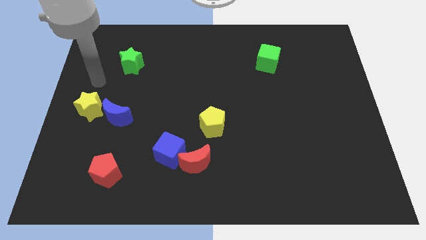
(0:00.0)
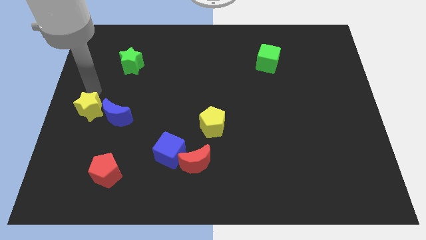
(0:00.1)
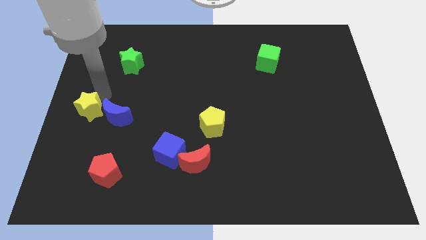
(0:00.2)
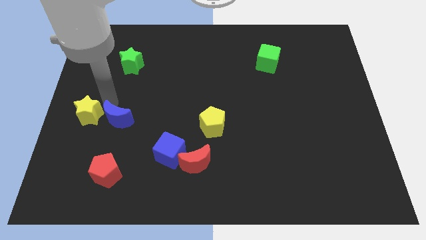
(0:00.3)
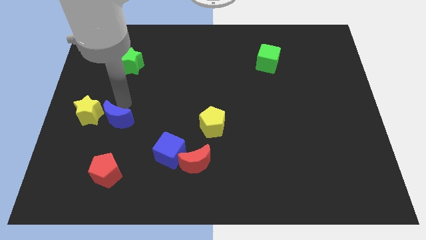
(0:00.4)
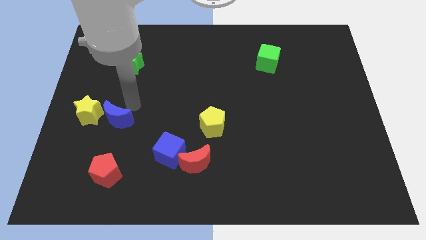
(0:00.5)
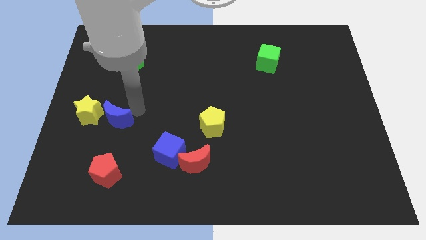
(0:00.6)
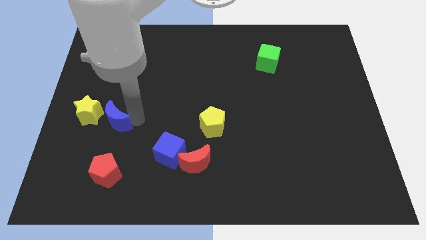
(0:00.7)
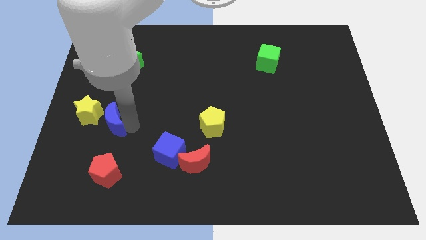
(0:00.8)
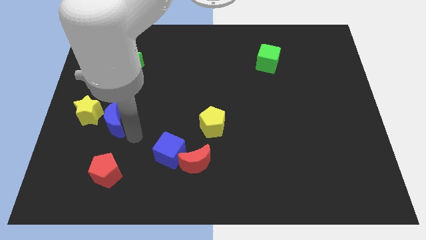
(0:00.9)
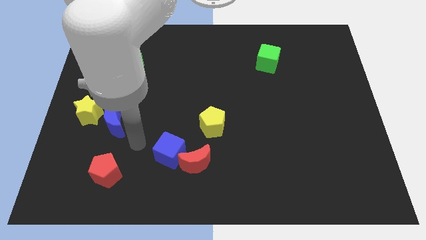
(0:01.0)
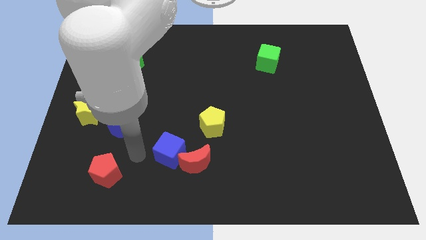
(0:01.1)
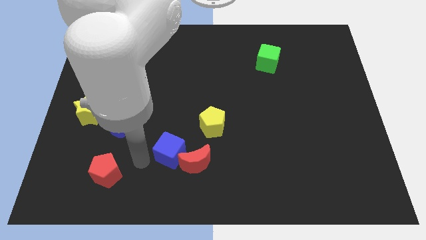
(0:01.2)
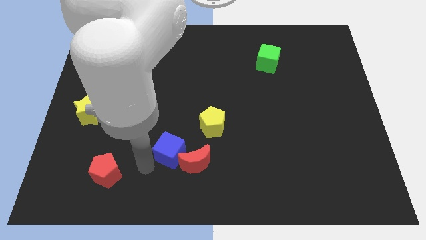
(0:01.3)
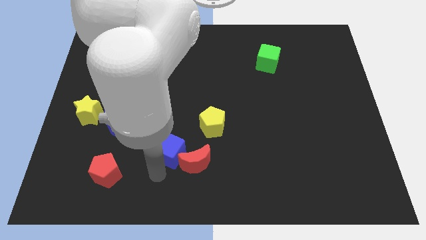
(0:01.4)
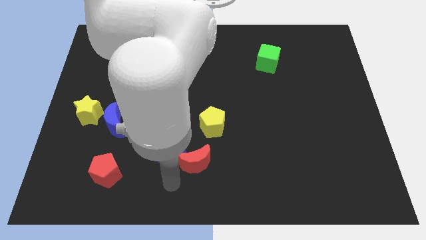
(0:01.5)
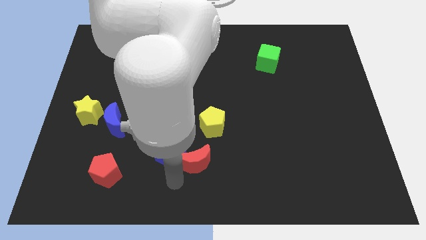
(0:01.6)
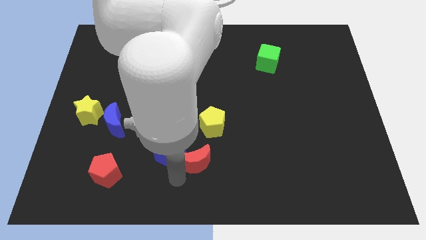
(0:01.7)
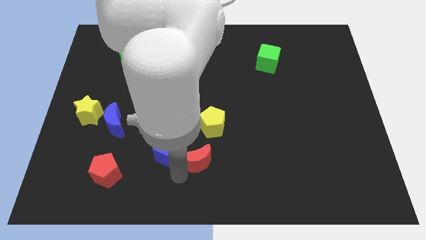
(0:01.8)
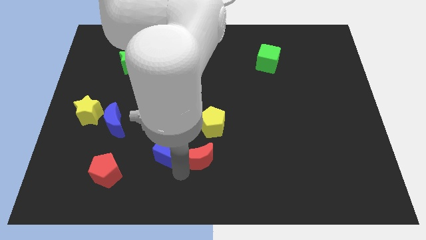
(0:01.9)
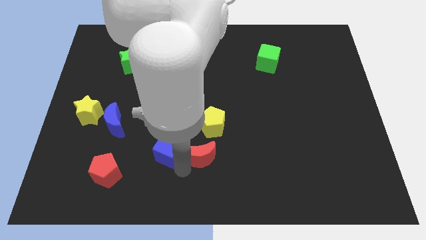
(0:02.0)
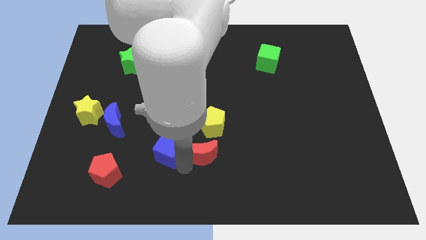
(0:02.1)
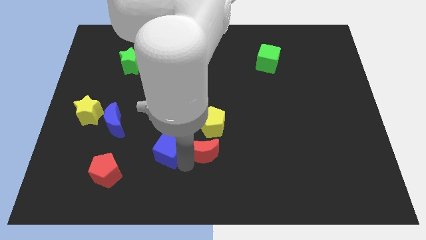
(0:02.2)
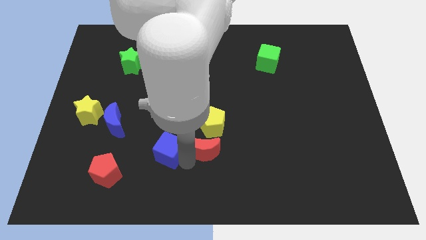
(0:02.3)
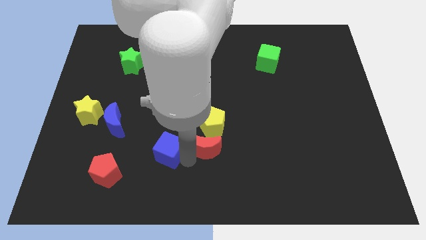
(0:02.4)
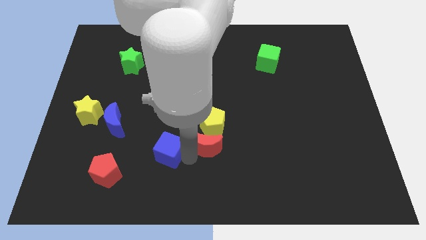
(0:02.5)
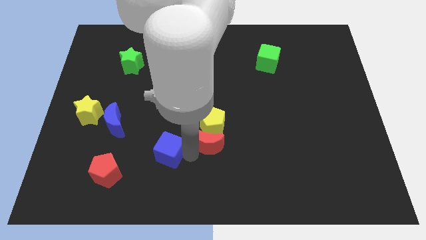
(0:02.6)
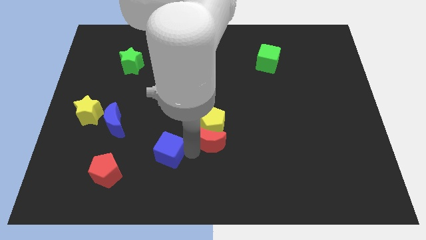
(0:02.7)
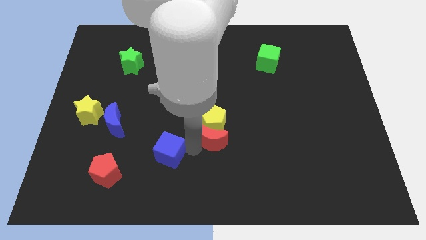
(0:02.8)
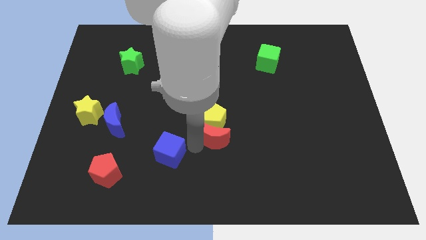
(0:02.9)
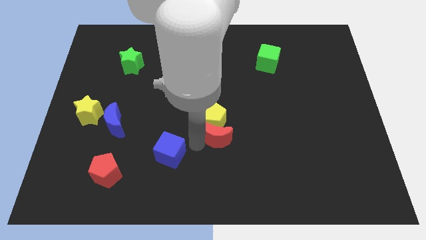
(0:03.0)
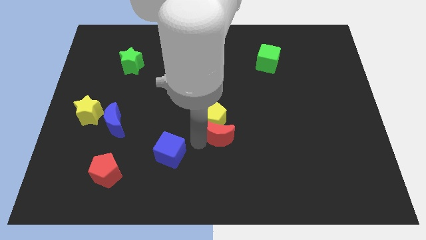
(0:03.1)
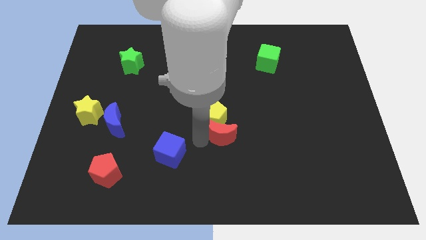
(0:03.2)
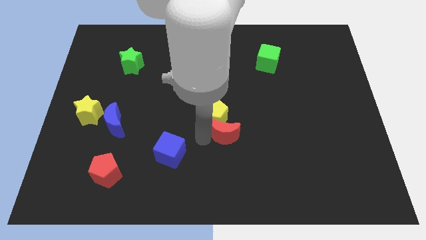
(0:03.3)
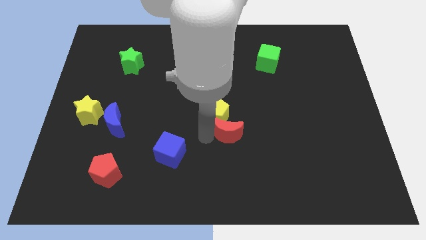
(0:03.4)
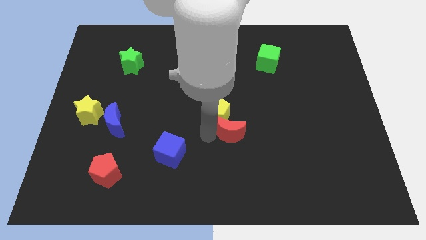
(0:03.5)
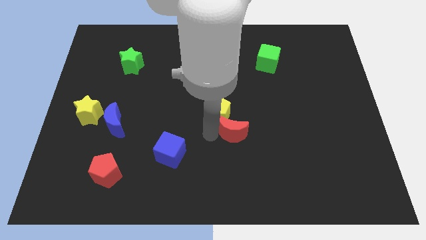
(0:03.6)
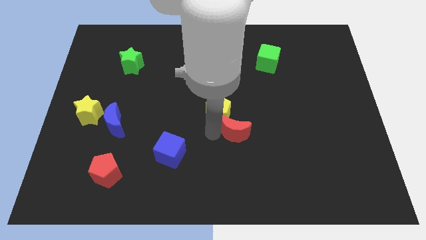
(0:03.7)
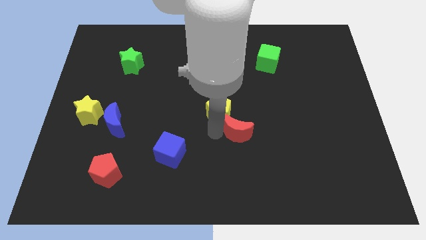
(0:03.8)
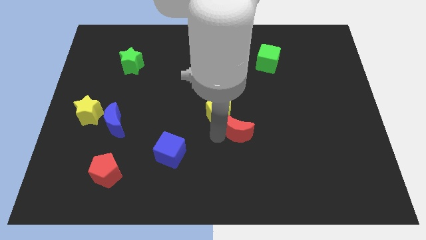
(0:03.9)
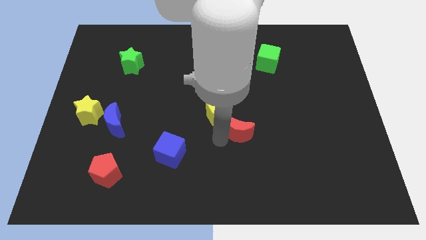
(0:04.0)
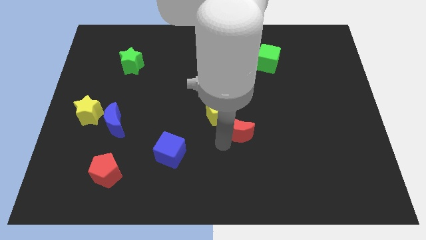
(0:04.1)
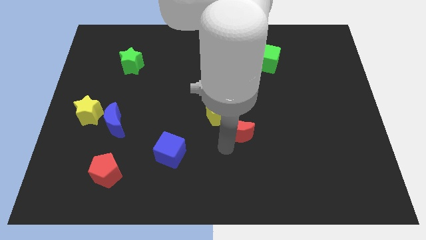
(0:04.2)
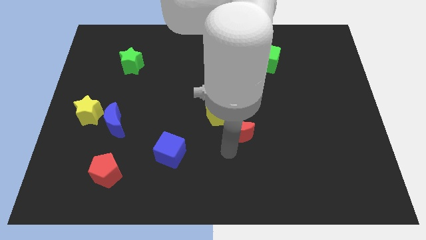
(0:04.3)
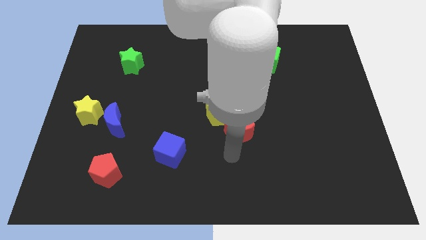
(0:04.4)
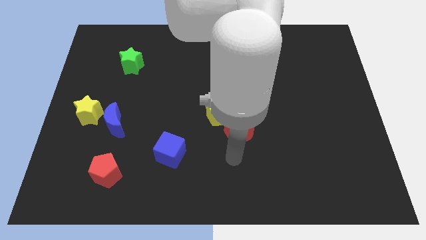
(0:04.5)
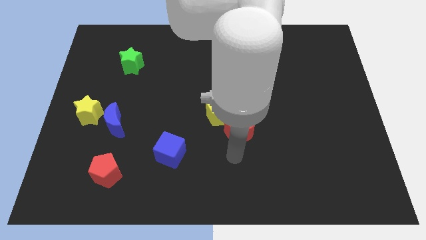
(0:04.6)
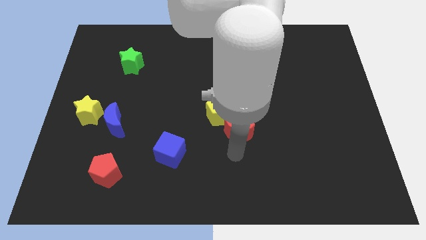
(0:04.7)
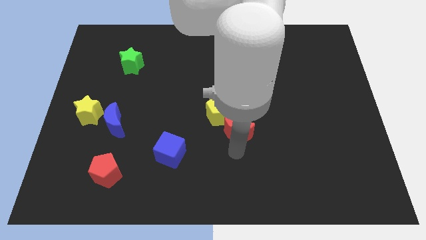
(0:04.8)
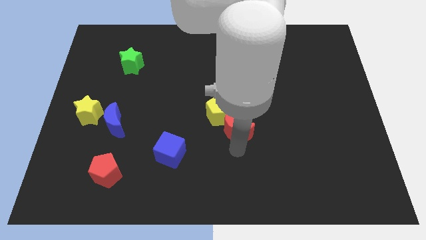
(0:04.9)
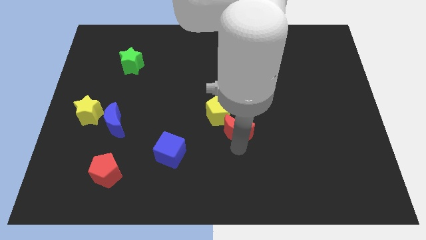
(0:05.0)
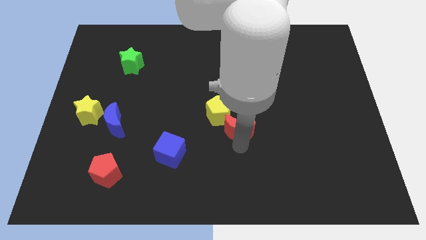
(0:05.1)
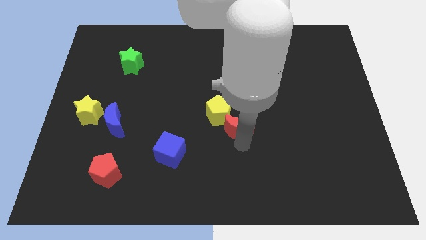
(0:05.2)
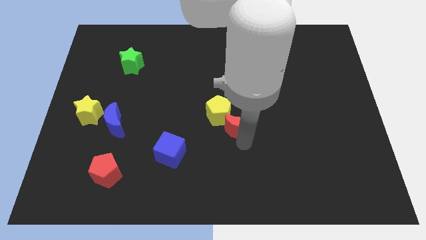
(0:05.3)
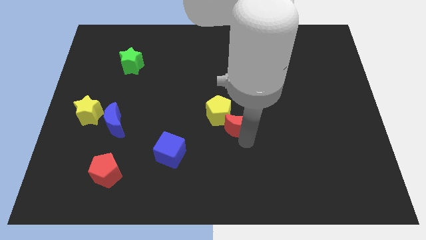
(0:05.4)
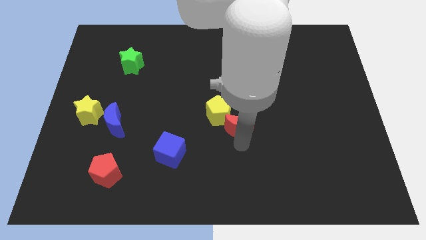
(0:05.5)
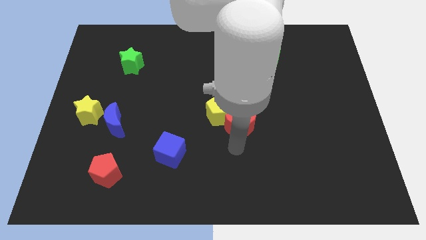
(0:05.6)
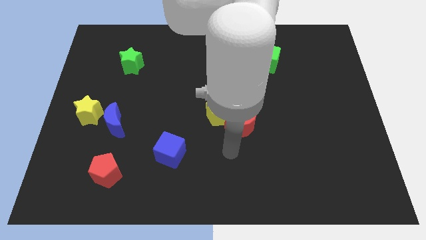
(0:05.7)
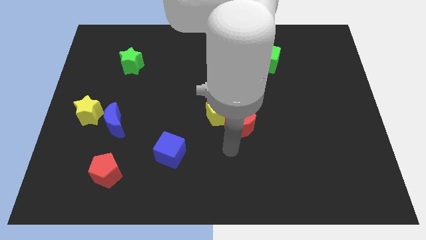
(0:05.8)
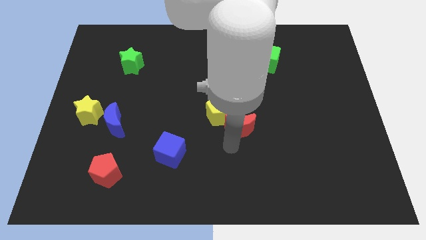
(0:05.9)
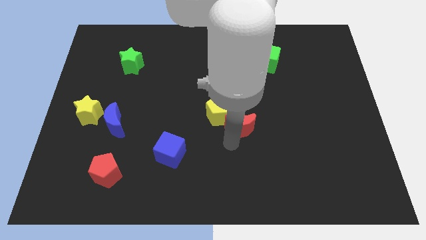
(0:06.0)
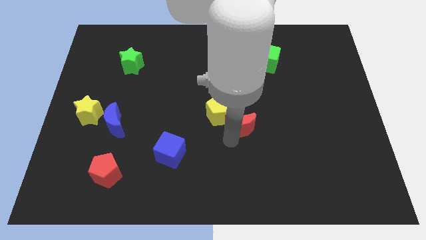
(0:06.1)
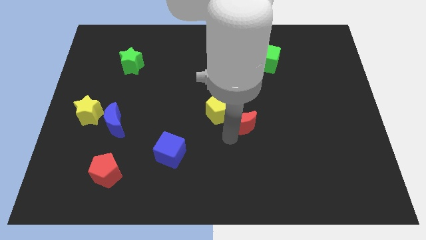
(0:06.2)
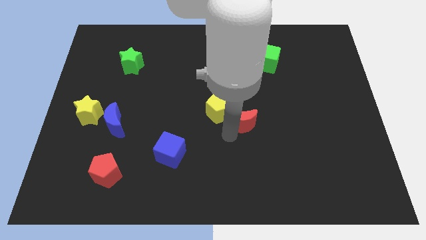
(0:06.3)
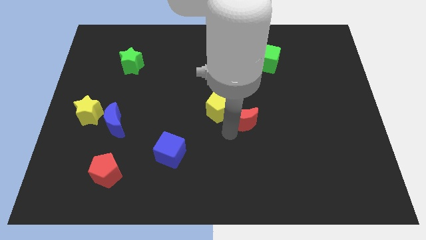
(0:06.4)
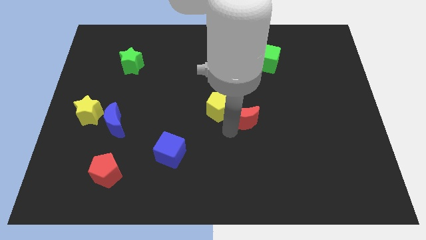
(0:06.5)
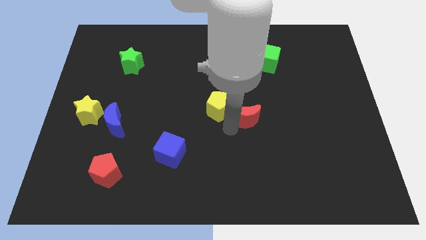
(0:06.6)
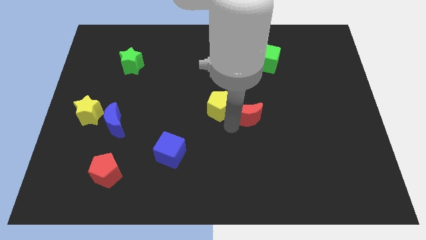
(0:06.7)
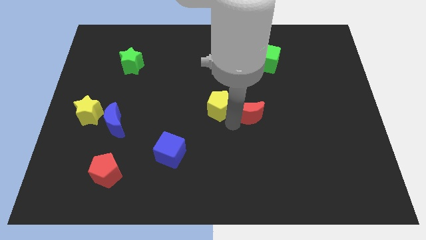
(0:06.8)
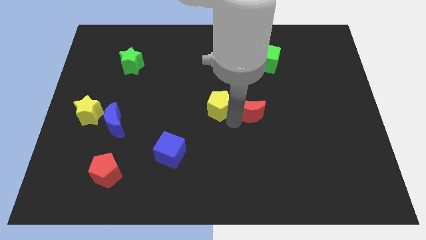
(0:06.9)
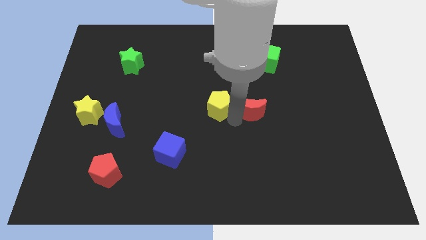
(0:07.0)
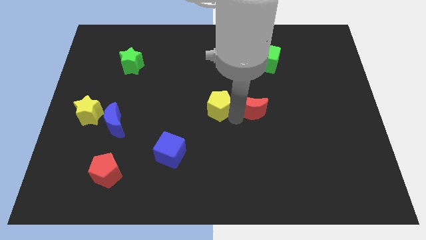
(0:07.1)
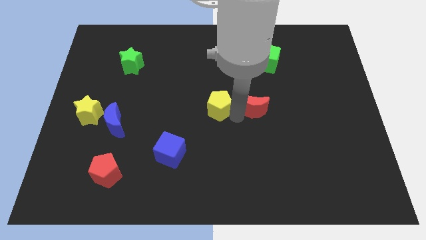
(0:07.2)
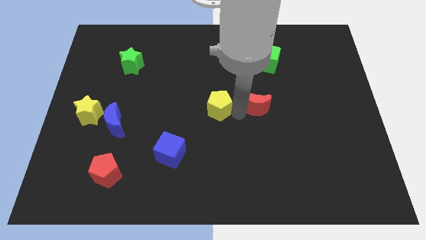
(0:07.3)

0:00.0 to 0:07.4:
push the red moon up and then right

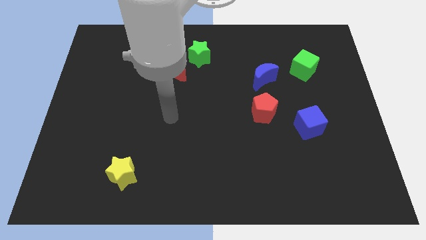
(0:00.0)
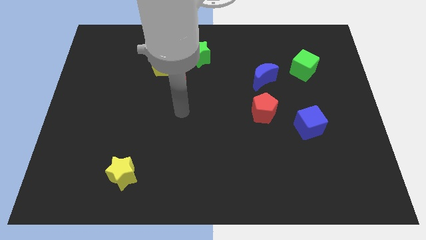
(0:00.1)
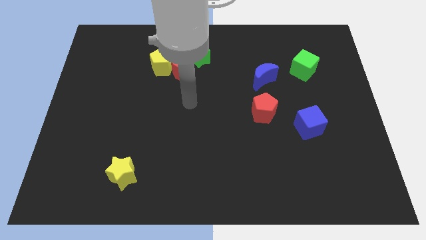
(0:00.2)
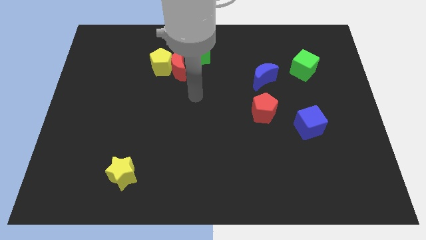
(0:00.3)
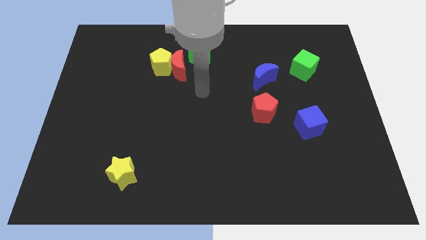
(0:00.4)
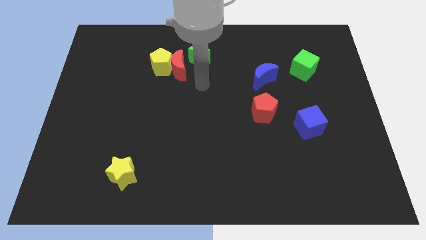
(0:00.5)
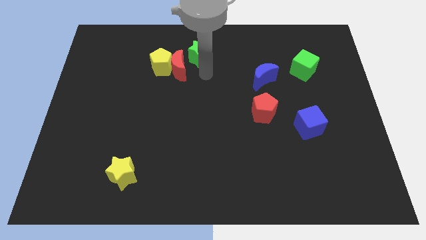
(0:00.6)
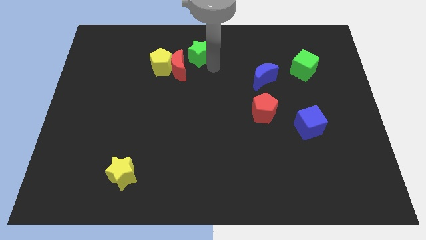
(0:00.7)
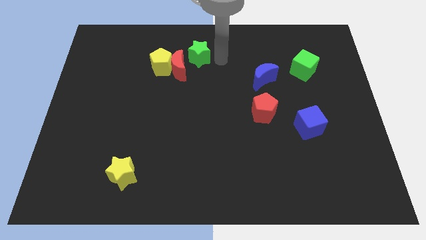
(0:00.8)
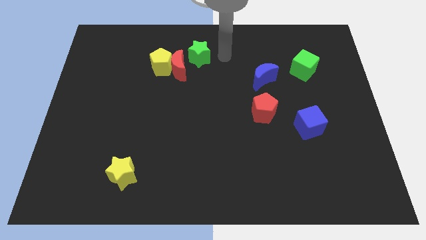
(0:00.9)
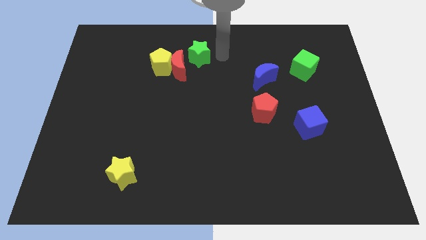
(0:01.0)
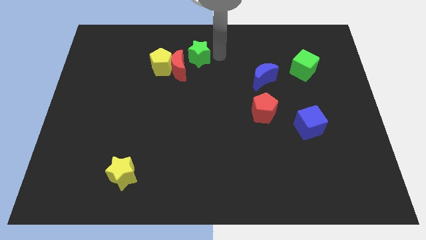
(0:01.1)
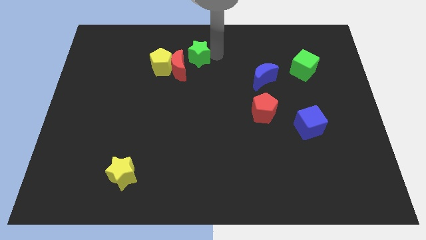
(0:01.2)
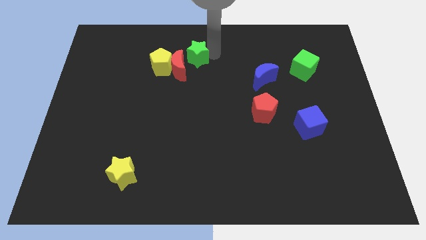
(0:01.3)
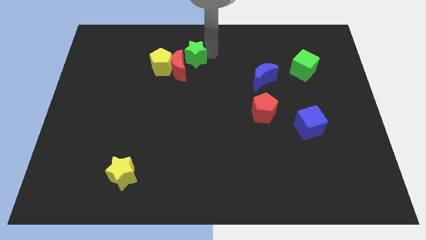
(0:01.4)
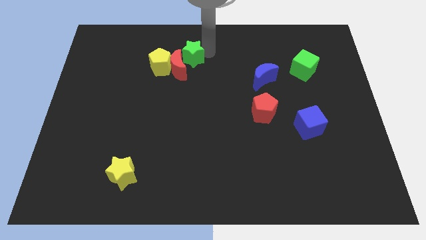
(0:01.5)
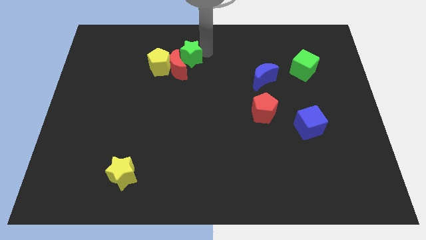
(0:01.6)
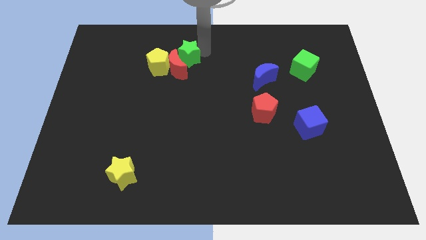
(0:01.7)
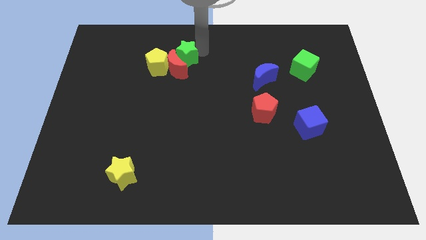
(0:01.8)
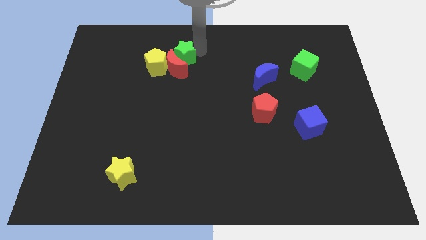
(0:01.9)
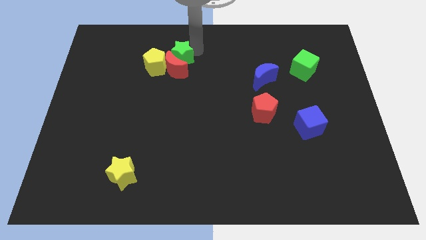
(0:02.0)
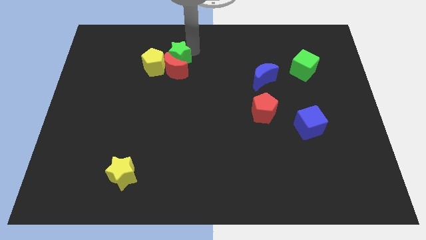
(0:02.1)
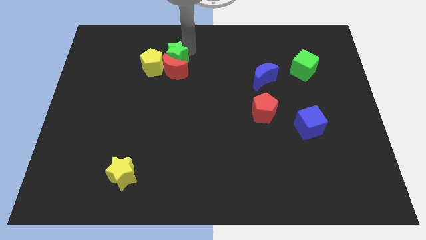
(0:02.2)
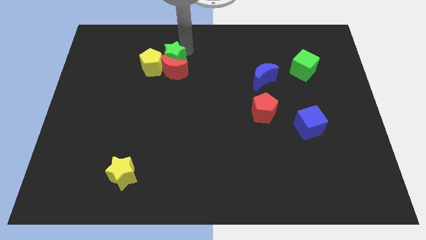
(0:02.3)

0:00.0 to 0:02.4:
slide the green star to the left a bit
